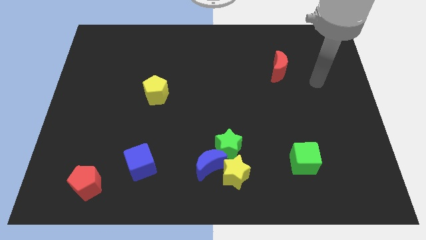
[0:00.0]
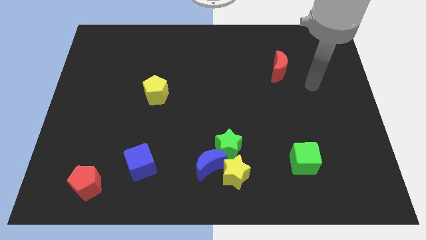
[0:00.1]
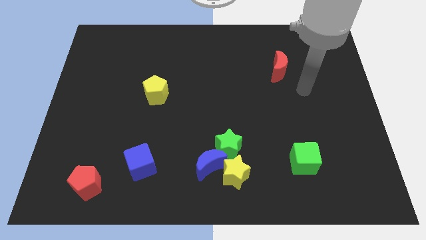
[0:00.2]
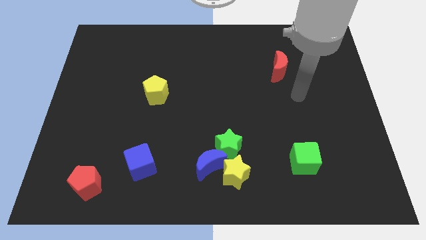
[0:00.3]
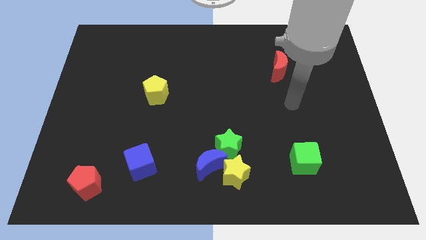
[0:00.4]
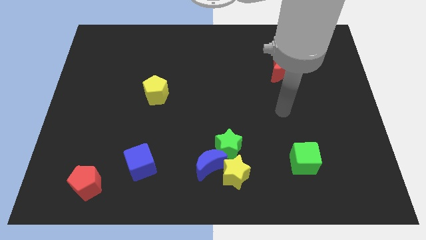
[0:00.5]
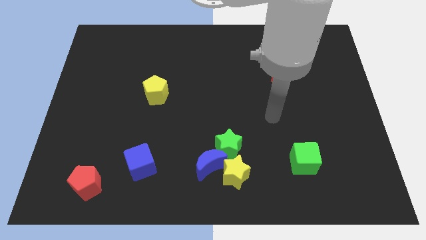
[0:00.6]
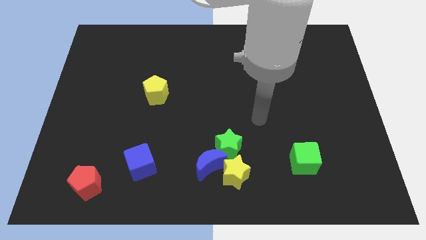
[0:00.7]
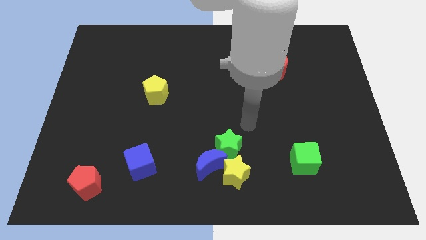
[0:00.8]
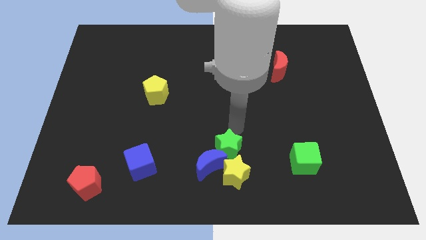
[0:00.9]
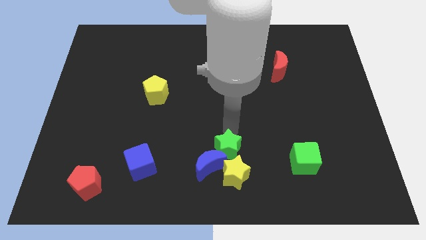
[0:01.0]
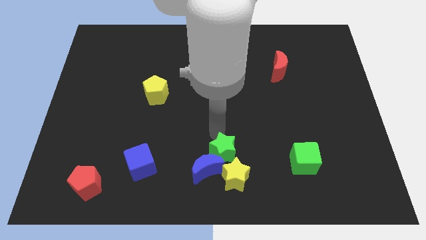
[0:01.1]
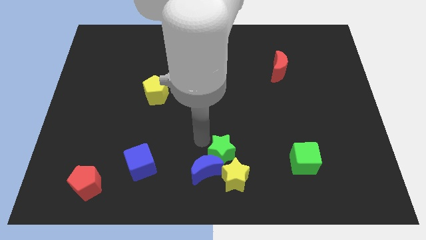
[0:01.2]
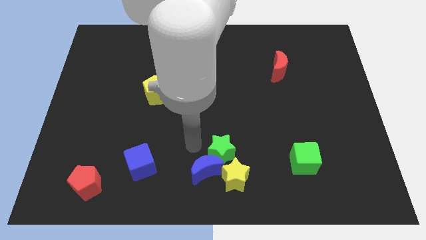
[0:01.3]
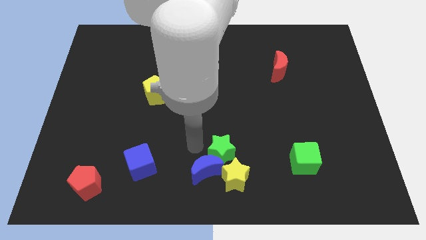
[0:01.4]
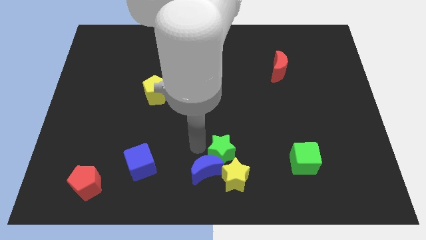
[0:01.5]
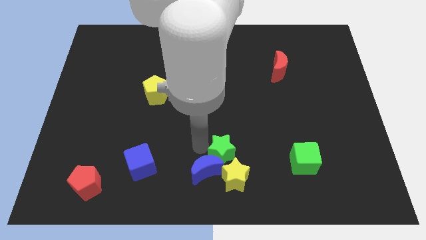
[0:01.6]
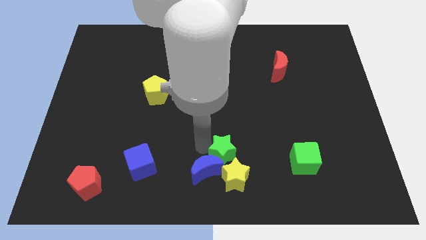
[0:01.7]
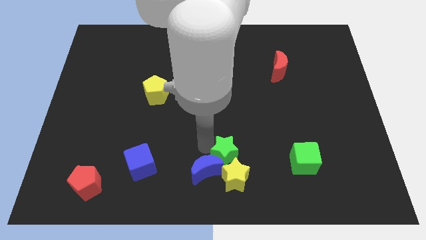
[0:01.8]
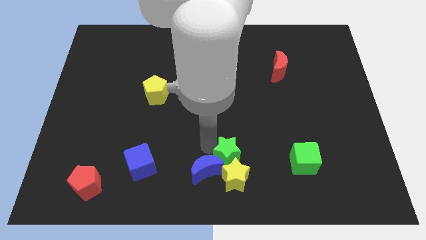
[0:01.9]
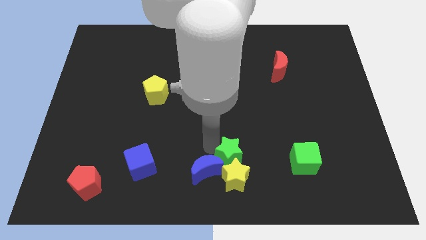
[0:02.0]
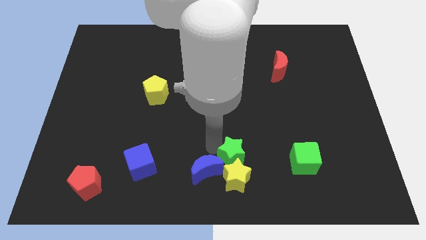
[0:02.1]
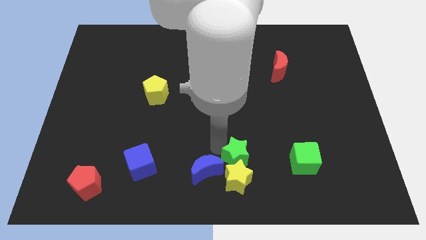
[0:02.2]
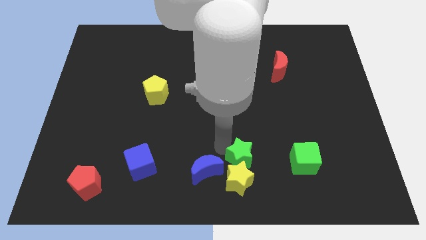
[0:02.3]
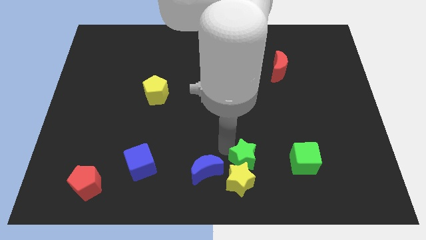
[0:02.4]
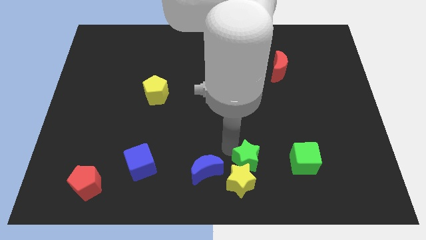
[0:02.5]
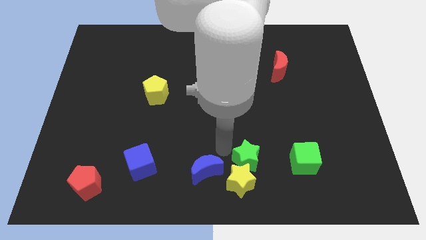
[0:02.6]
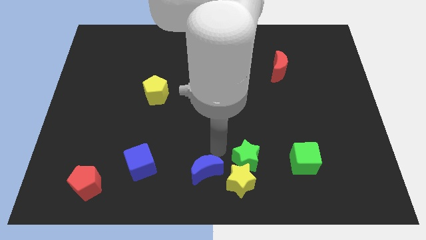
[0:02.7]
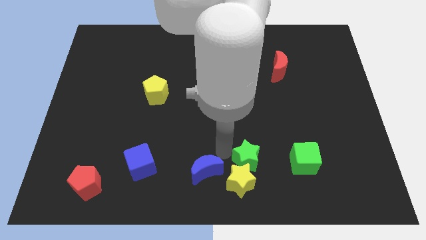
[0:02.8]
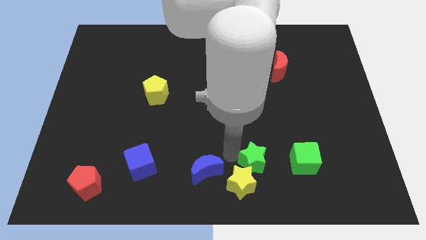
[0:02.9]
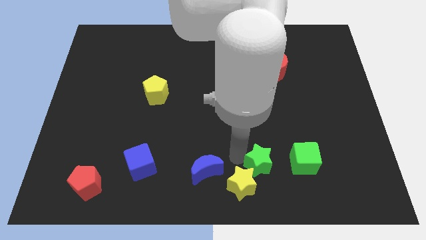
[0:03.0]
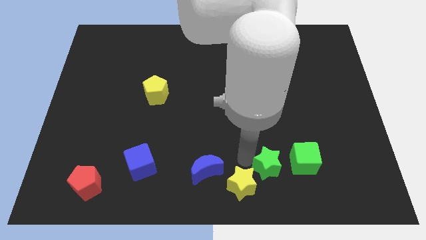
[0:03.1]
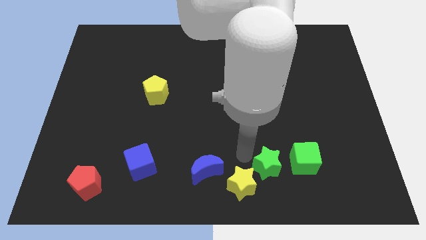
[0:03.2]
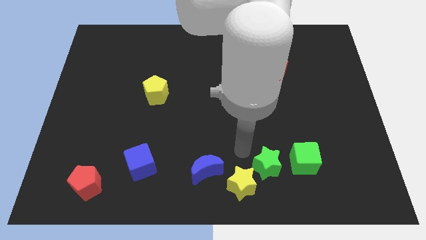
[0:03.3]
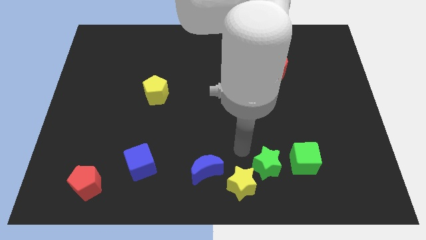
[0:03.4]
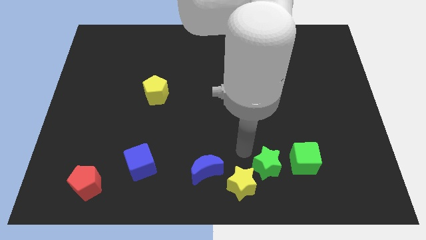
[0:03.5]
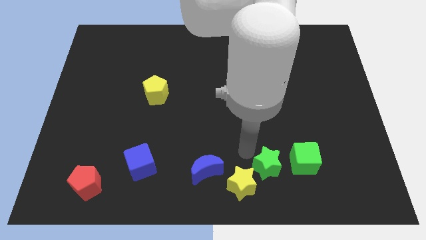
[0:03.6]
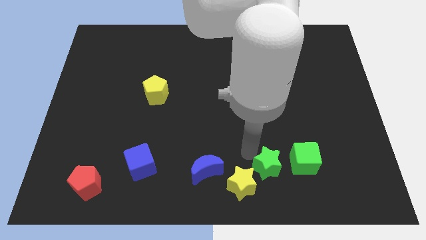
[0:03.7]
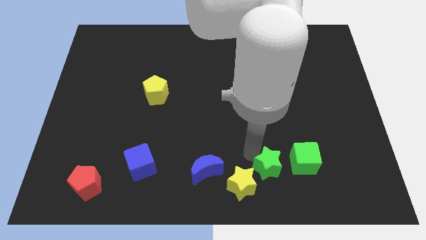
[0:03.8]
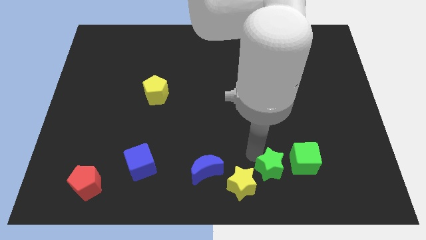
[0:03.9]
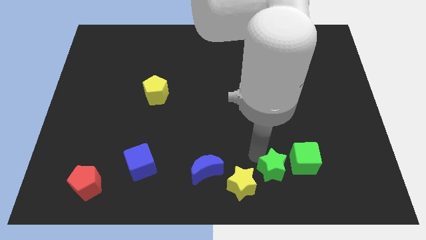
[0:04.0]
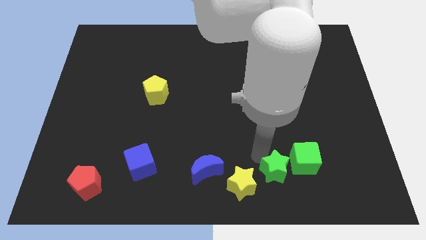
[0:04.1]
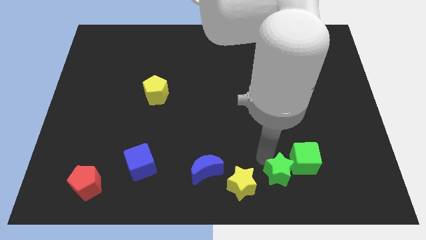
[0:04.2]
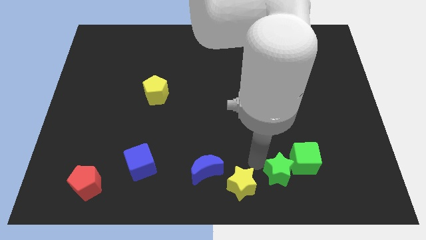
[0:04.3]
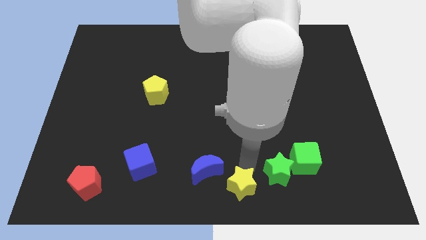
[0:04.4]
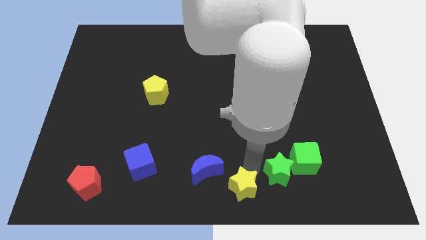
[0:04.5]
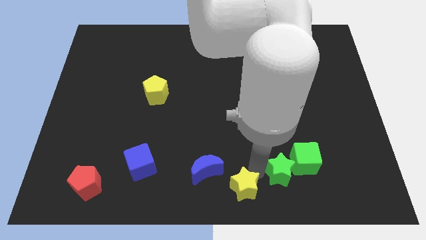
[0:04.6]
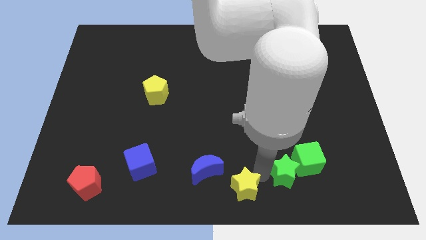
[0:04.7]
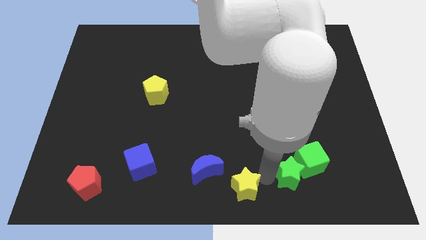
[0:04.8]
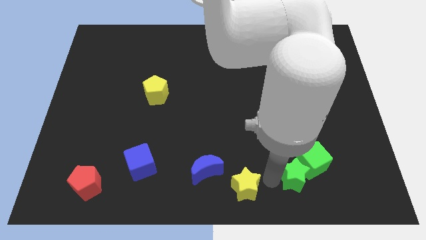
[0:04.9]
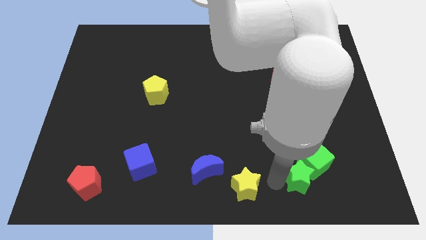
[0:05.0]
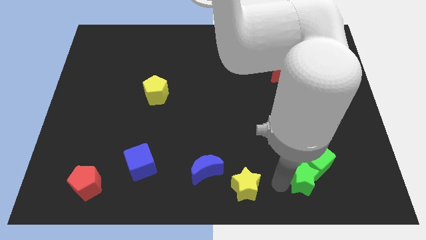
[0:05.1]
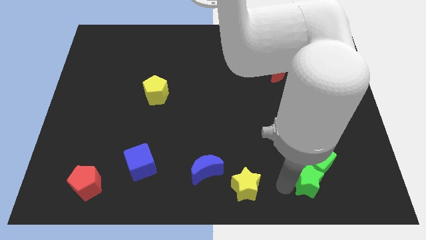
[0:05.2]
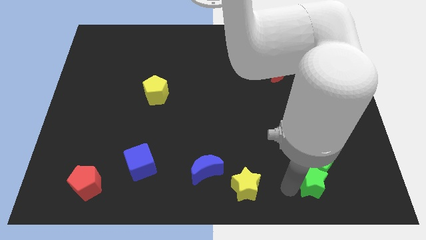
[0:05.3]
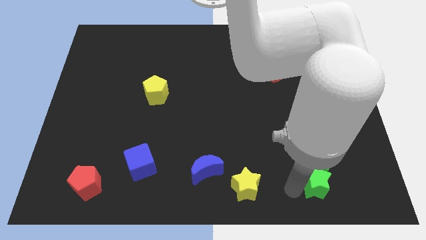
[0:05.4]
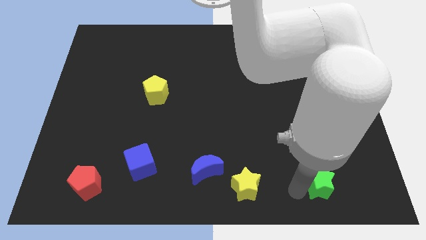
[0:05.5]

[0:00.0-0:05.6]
push the green star diagonally down and to the right of the green cube

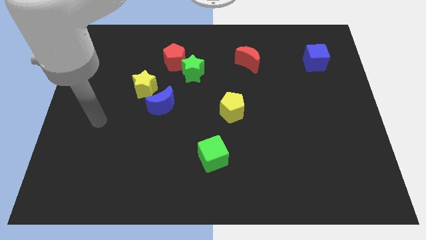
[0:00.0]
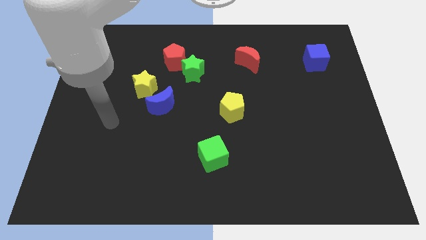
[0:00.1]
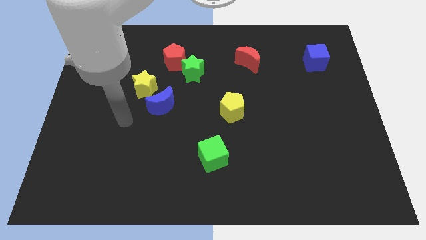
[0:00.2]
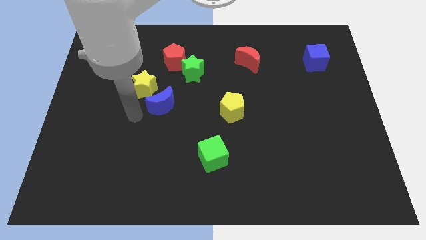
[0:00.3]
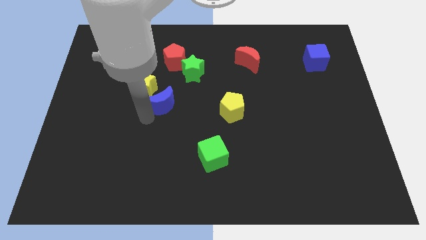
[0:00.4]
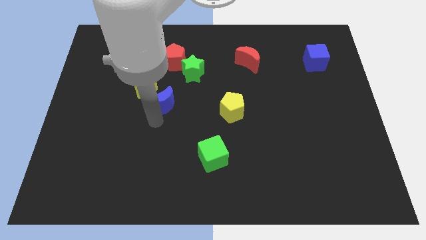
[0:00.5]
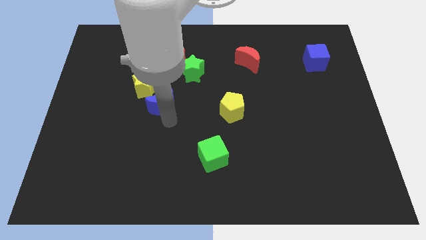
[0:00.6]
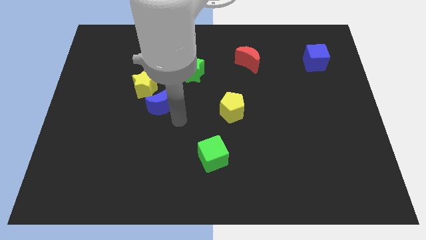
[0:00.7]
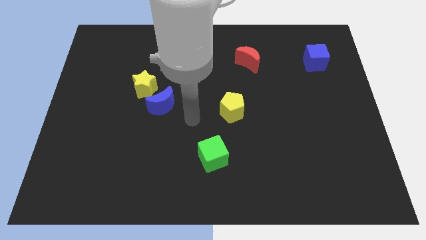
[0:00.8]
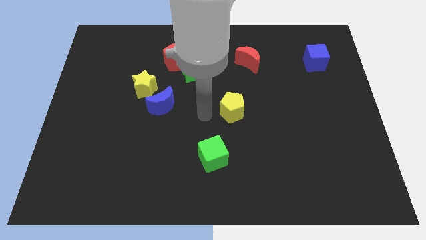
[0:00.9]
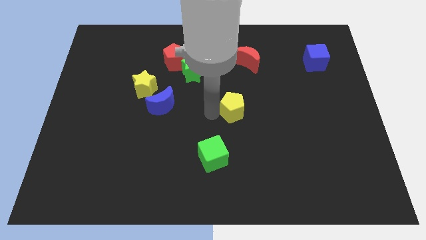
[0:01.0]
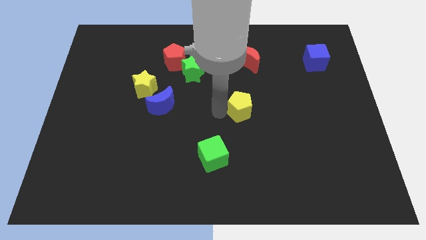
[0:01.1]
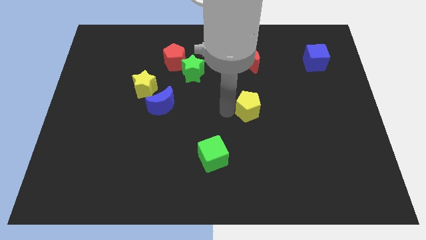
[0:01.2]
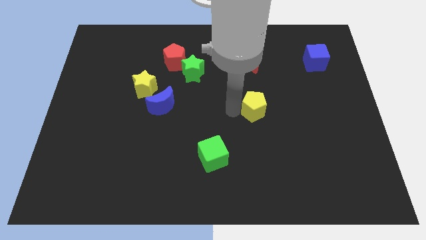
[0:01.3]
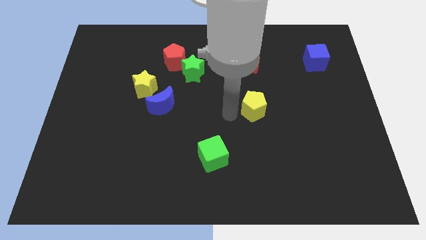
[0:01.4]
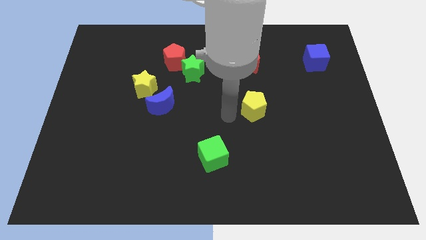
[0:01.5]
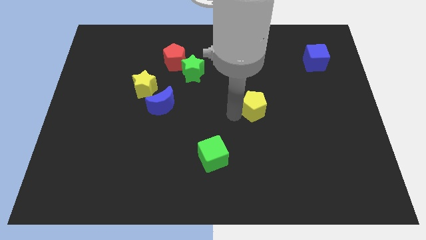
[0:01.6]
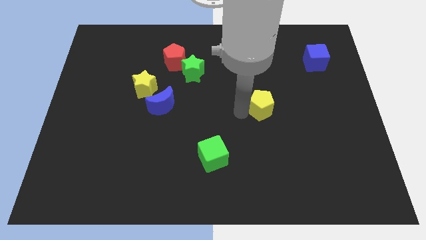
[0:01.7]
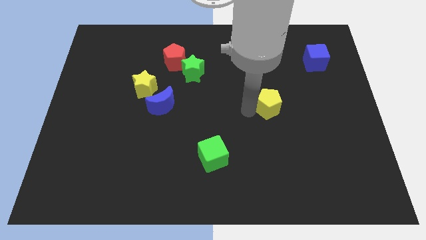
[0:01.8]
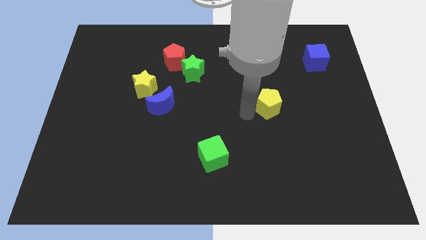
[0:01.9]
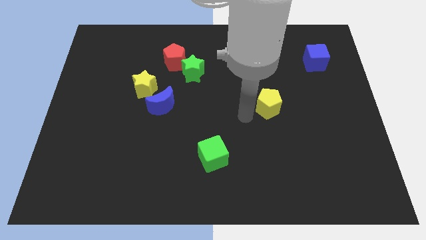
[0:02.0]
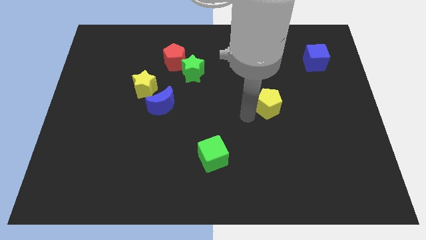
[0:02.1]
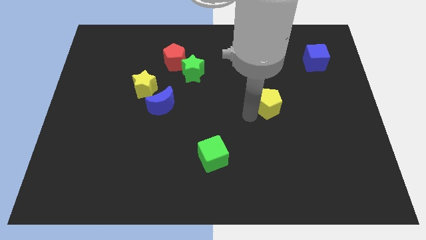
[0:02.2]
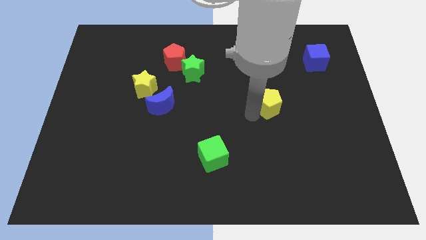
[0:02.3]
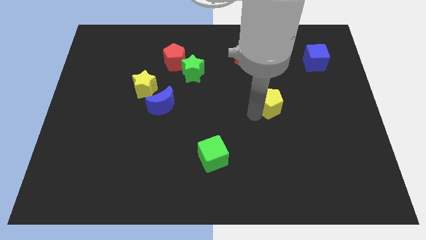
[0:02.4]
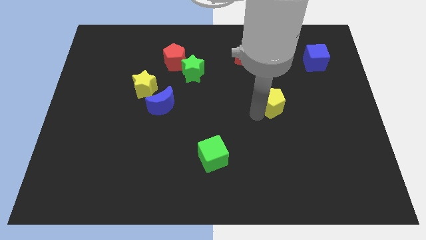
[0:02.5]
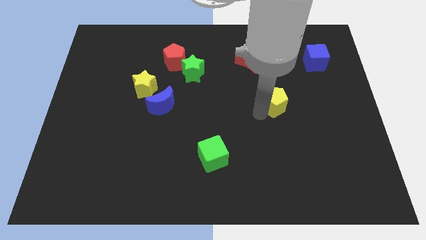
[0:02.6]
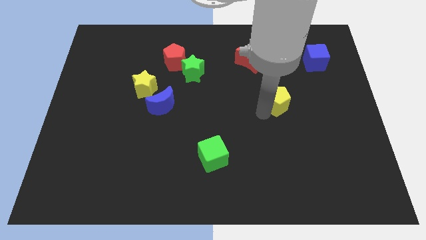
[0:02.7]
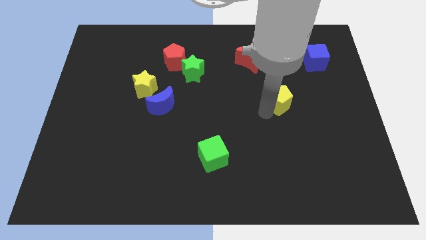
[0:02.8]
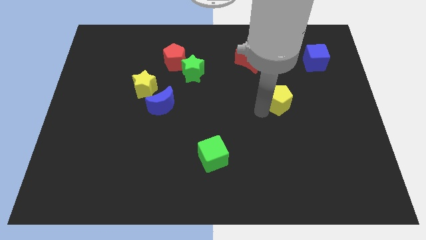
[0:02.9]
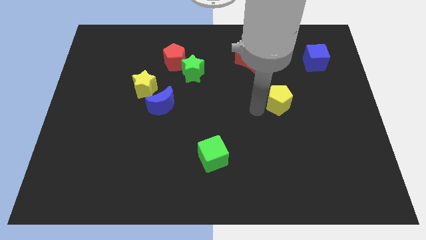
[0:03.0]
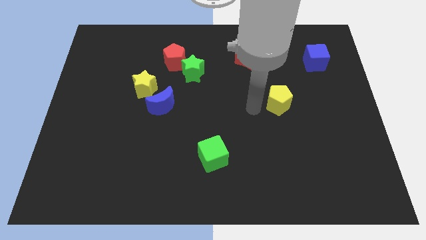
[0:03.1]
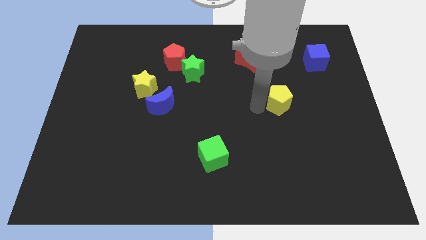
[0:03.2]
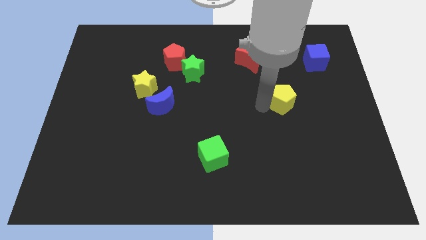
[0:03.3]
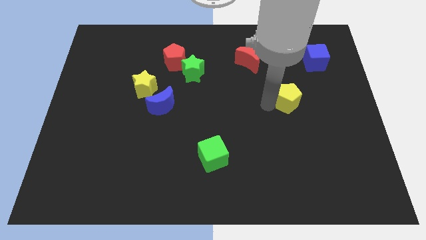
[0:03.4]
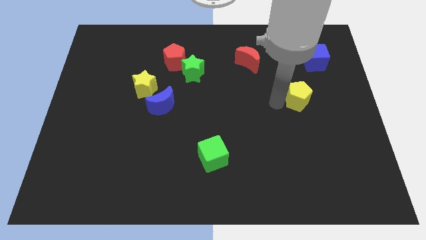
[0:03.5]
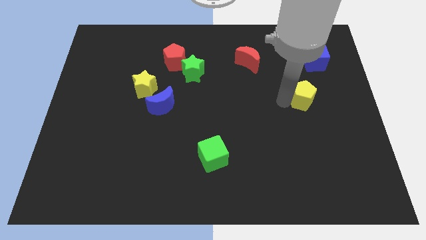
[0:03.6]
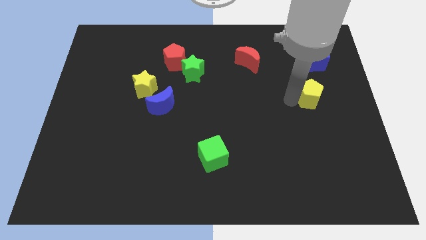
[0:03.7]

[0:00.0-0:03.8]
push the yellow pentagon to the bottom of the blue cube
